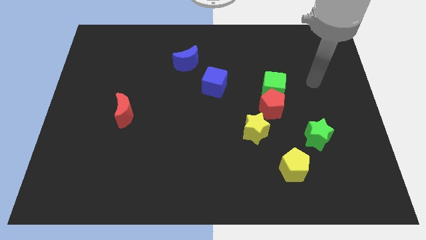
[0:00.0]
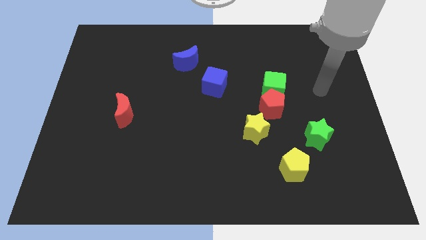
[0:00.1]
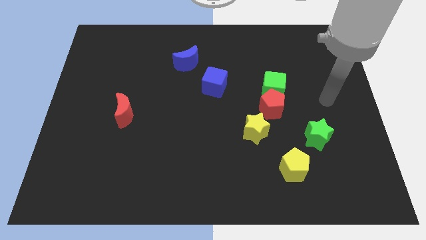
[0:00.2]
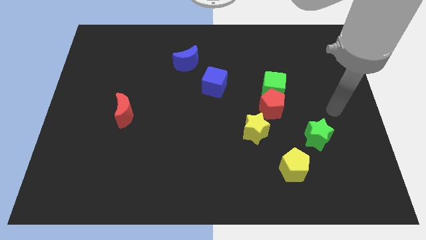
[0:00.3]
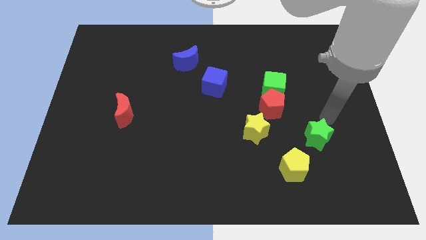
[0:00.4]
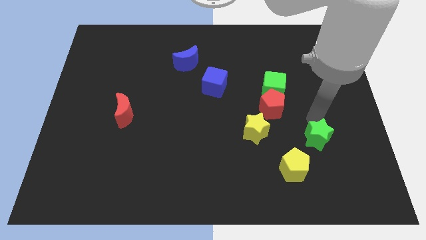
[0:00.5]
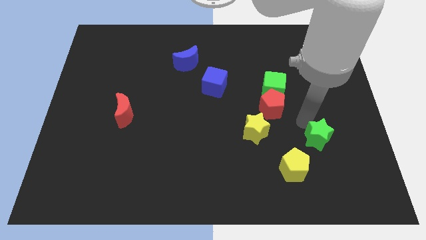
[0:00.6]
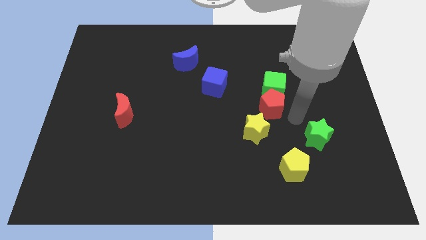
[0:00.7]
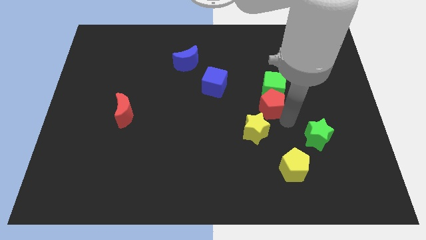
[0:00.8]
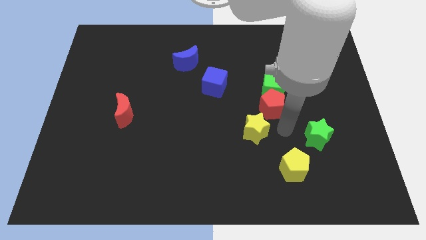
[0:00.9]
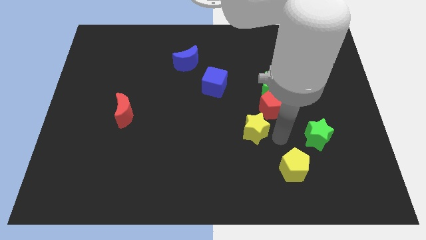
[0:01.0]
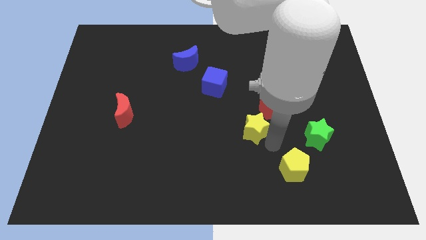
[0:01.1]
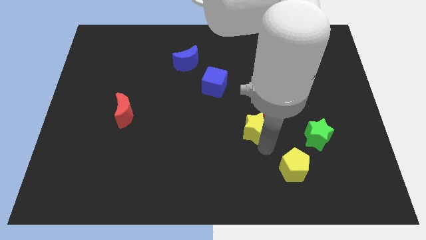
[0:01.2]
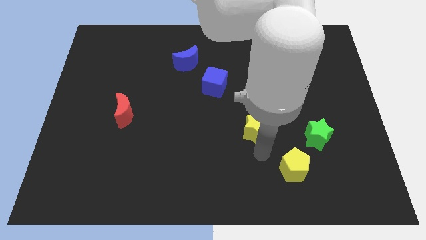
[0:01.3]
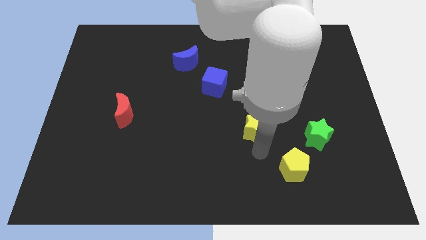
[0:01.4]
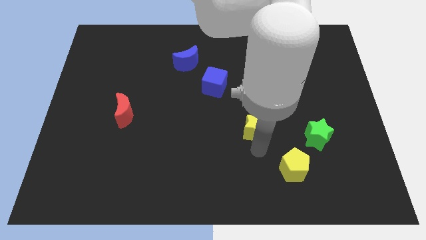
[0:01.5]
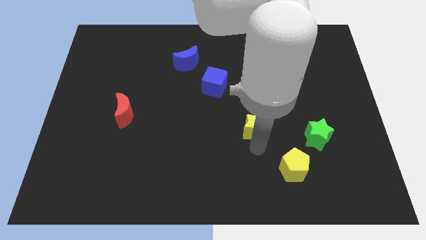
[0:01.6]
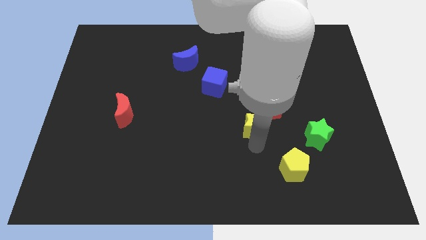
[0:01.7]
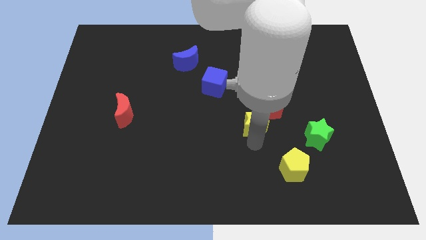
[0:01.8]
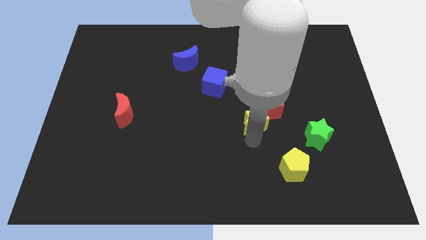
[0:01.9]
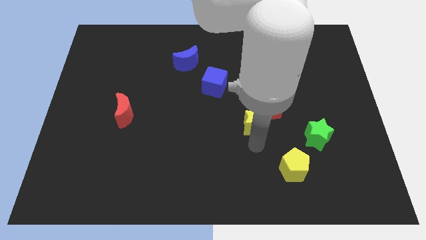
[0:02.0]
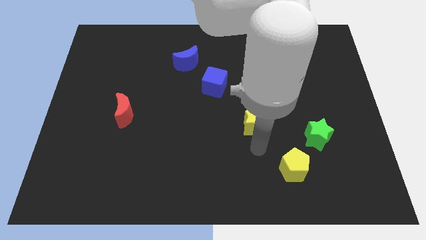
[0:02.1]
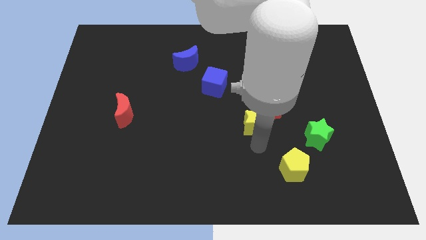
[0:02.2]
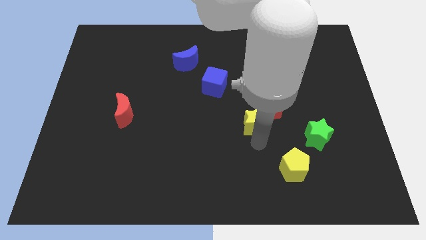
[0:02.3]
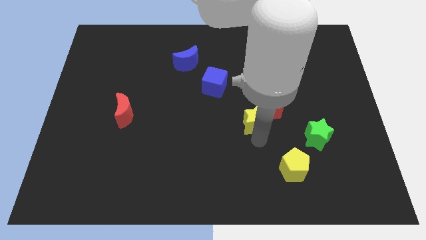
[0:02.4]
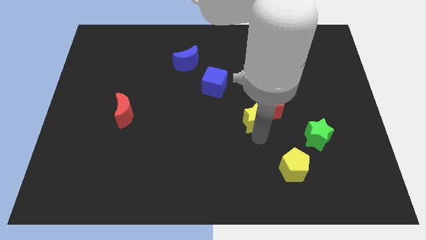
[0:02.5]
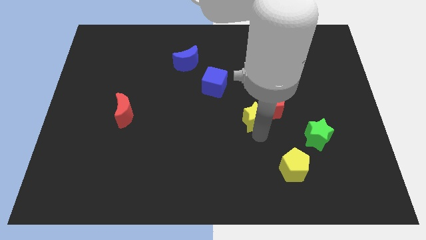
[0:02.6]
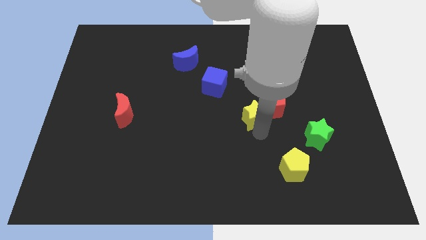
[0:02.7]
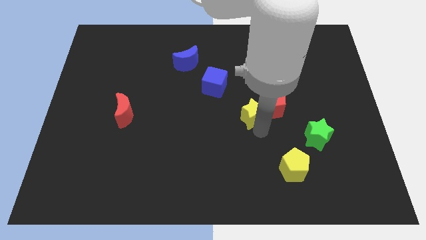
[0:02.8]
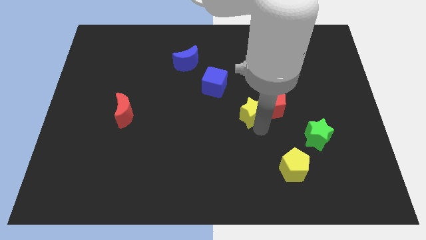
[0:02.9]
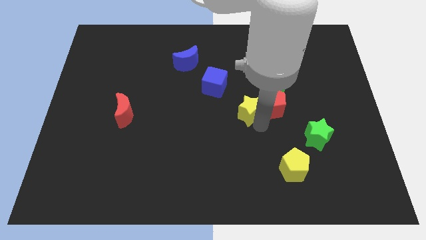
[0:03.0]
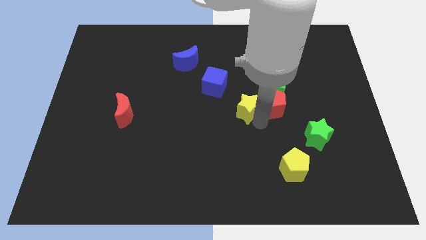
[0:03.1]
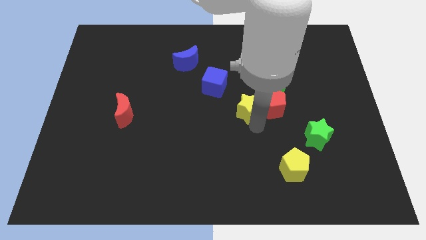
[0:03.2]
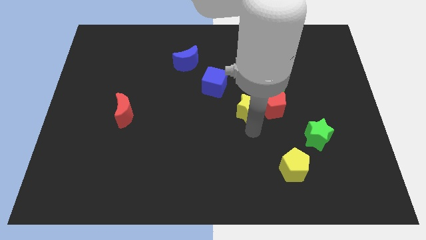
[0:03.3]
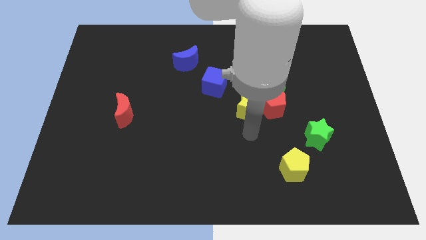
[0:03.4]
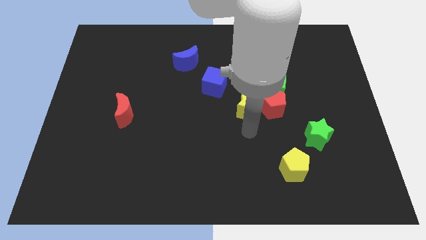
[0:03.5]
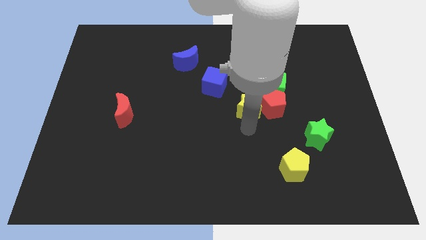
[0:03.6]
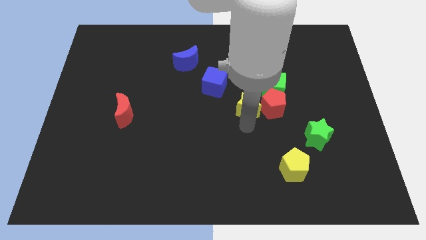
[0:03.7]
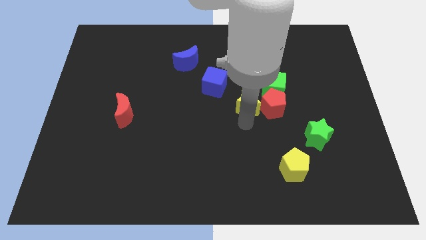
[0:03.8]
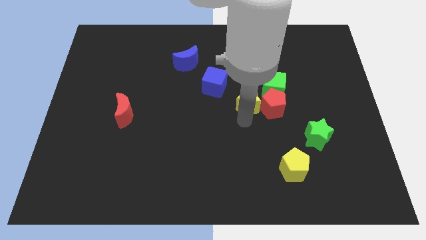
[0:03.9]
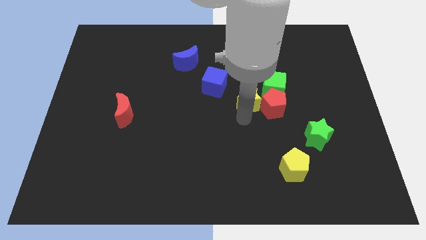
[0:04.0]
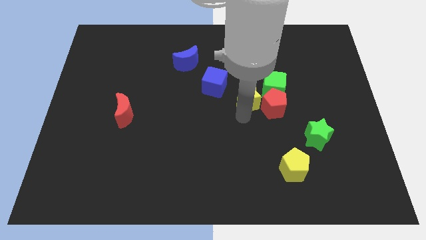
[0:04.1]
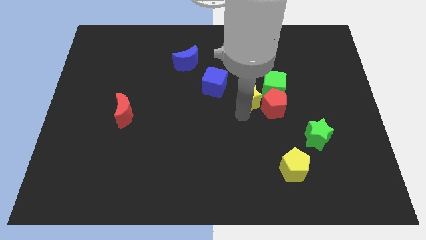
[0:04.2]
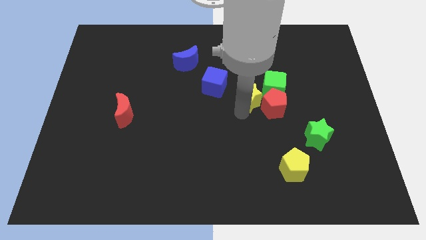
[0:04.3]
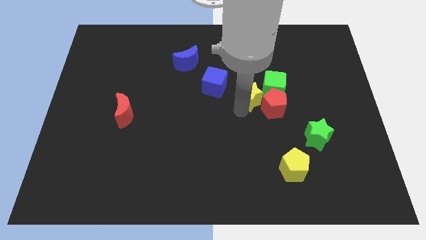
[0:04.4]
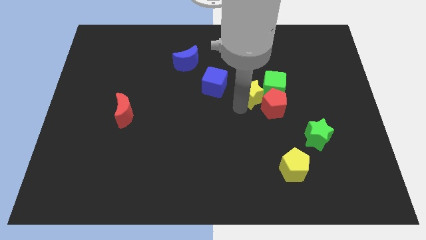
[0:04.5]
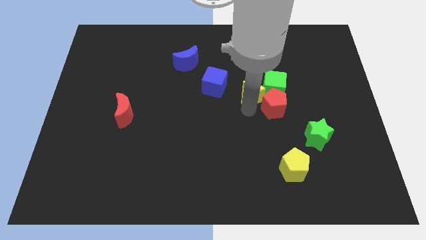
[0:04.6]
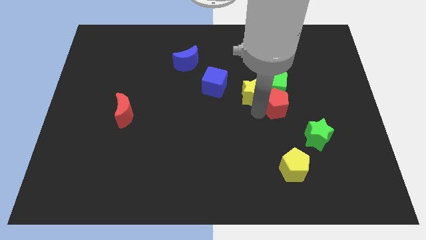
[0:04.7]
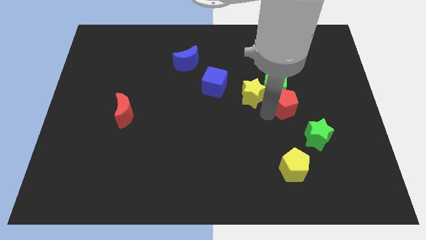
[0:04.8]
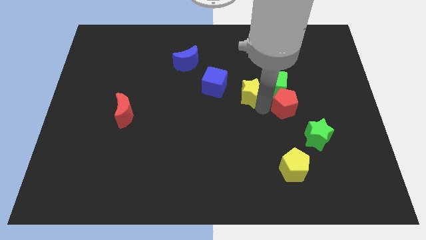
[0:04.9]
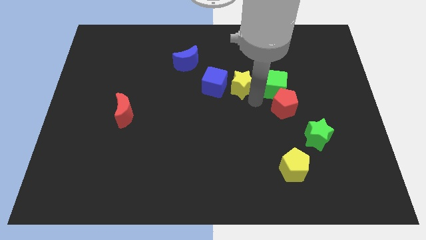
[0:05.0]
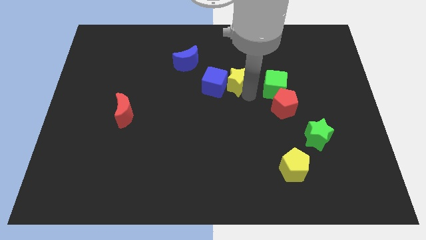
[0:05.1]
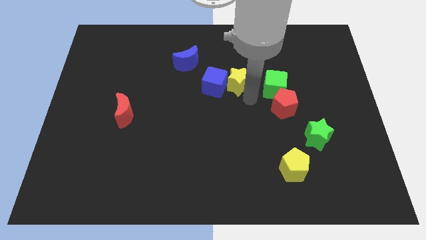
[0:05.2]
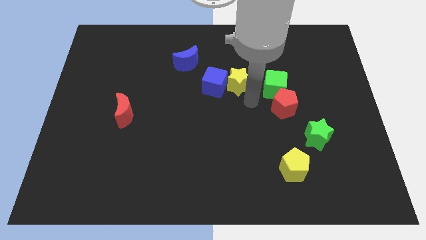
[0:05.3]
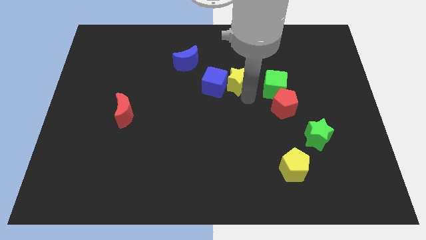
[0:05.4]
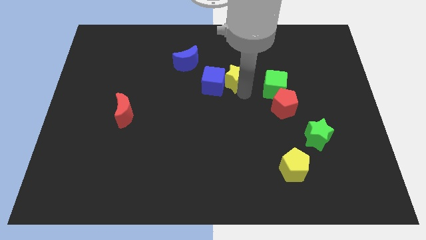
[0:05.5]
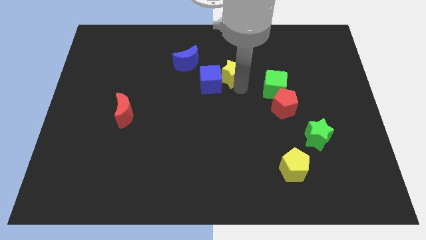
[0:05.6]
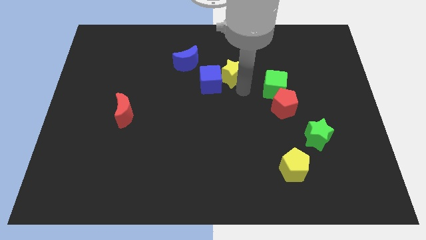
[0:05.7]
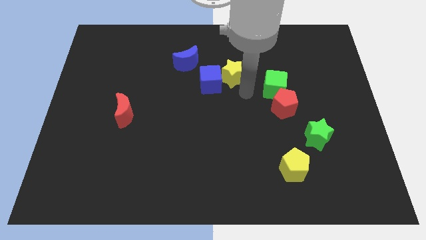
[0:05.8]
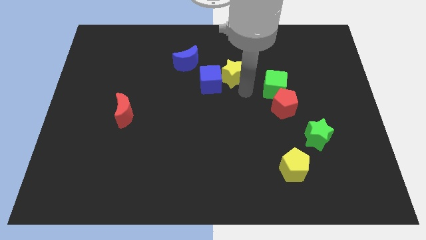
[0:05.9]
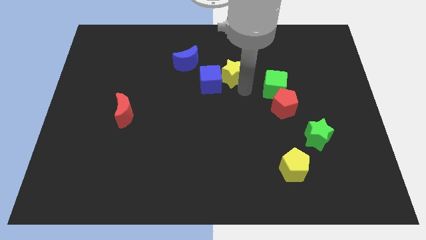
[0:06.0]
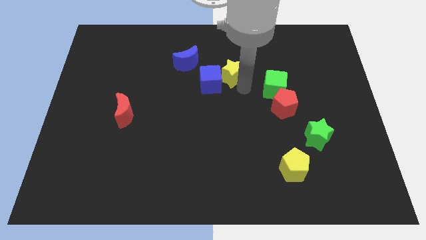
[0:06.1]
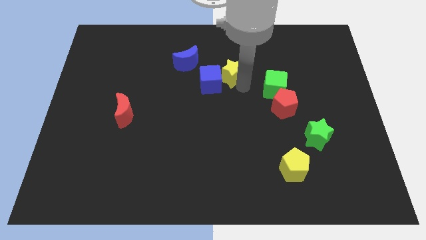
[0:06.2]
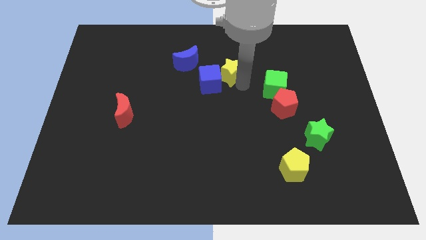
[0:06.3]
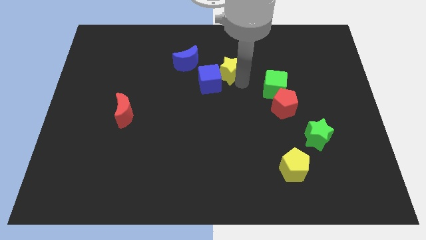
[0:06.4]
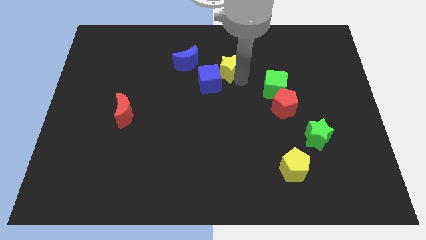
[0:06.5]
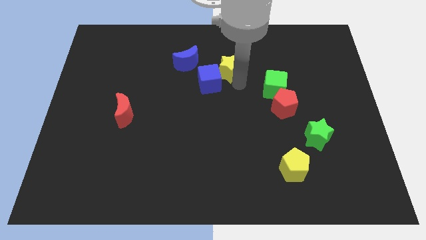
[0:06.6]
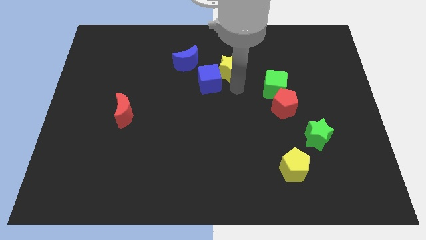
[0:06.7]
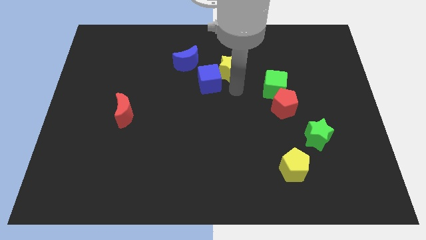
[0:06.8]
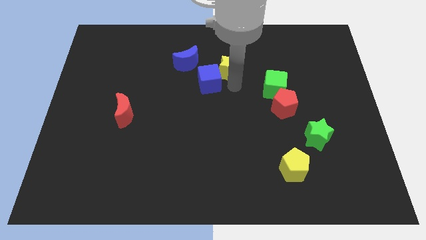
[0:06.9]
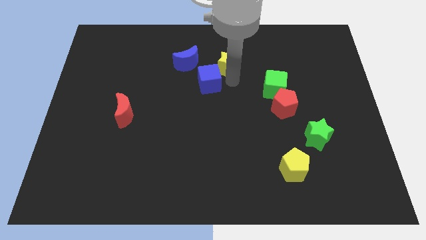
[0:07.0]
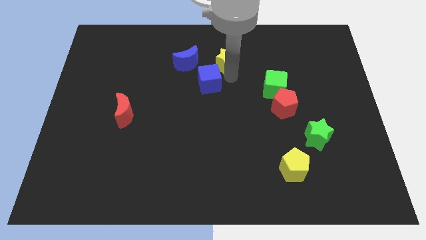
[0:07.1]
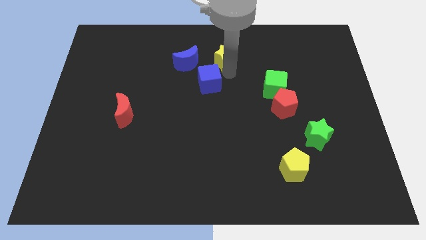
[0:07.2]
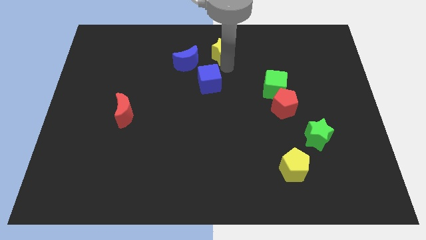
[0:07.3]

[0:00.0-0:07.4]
put the yellow star to the towards your base
